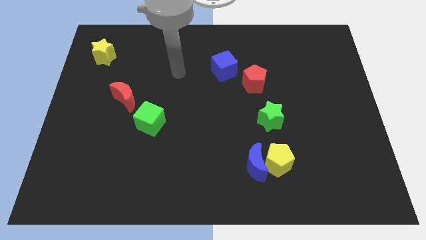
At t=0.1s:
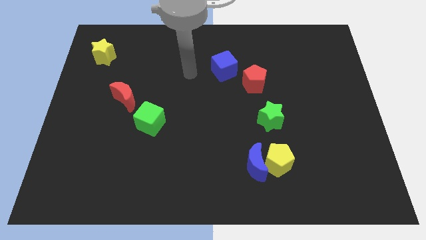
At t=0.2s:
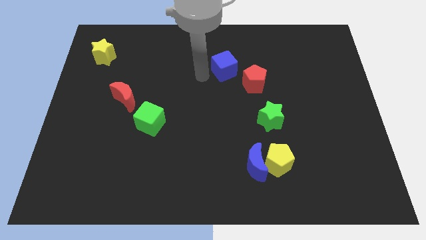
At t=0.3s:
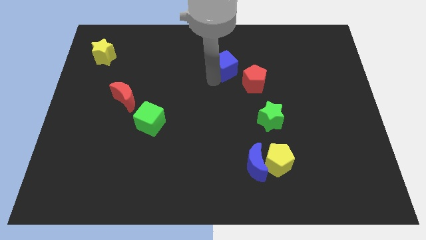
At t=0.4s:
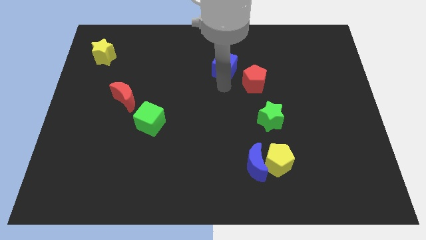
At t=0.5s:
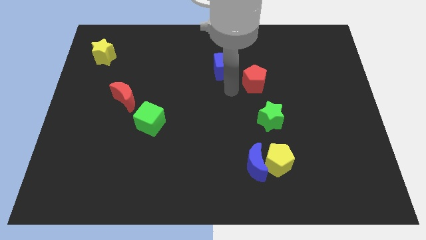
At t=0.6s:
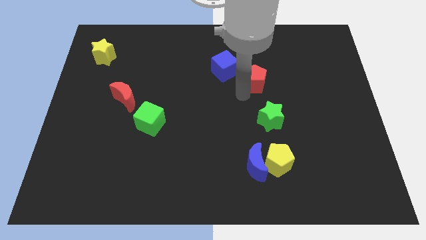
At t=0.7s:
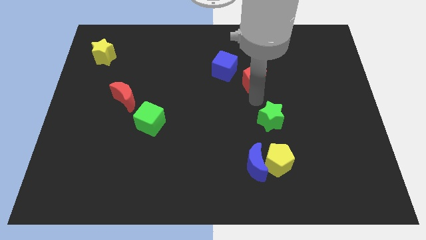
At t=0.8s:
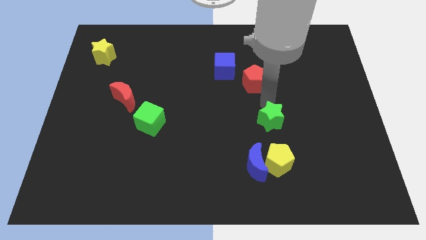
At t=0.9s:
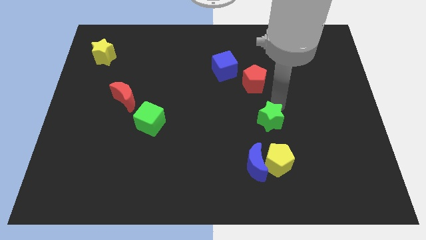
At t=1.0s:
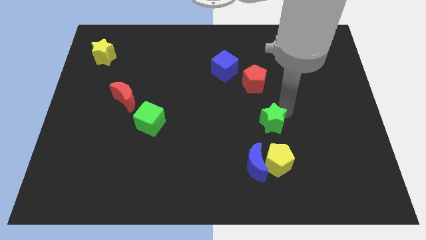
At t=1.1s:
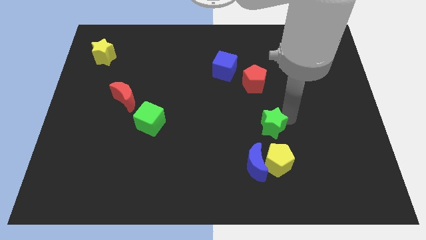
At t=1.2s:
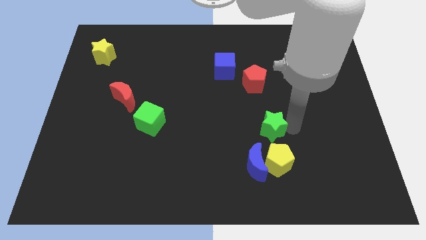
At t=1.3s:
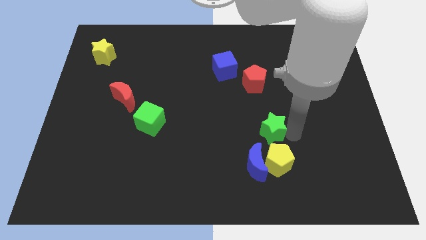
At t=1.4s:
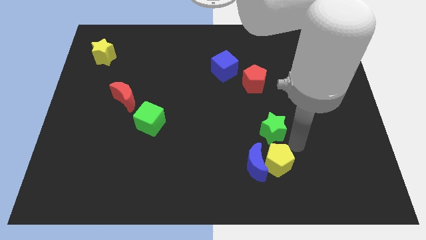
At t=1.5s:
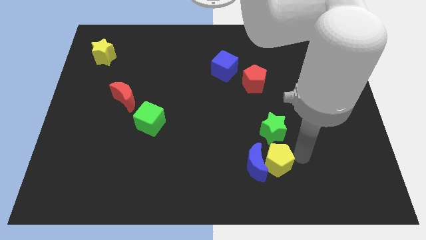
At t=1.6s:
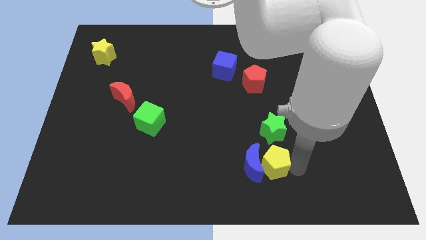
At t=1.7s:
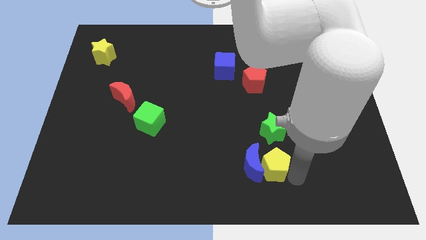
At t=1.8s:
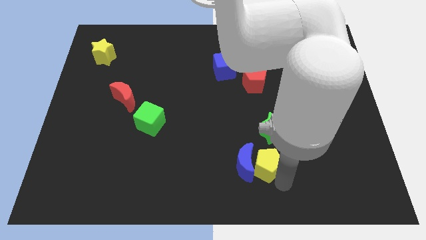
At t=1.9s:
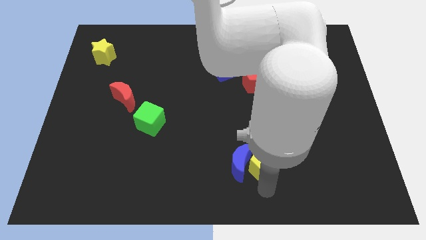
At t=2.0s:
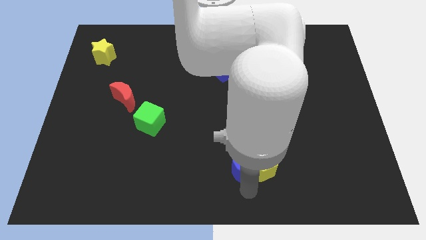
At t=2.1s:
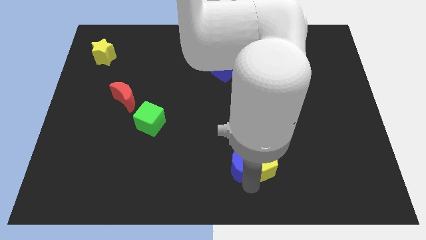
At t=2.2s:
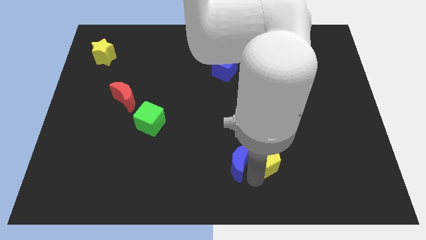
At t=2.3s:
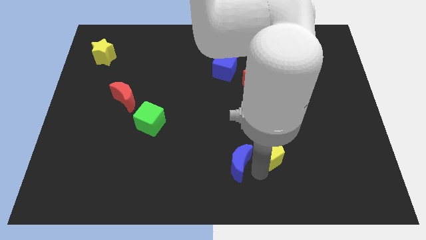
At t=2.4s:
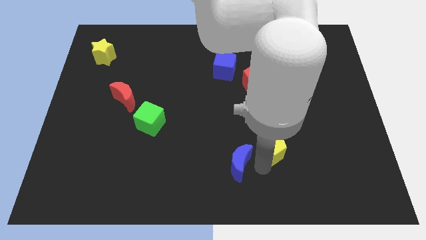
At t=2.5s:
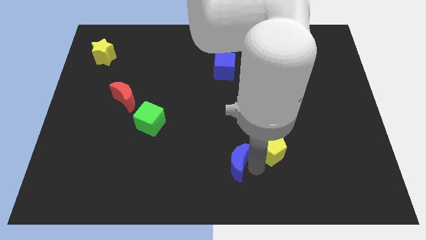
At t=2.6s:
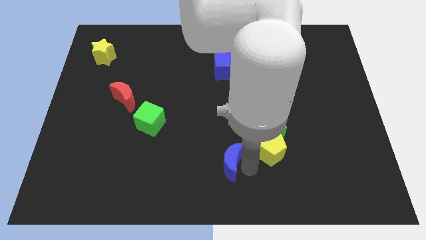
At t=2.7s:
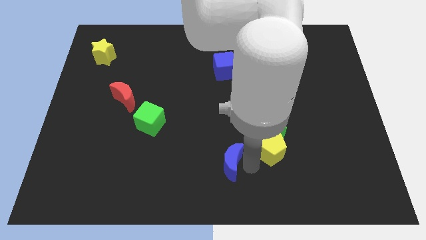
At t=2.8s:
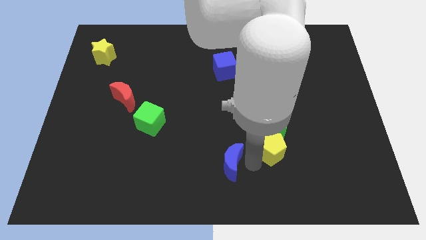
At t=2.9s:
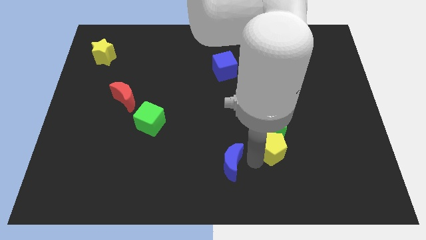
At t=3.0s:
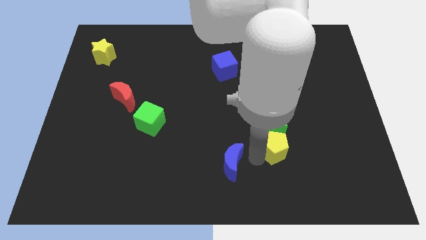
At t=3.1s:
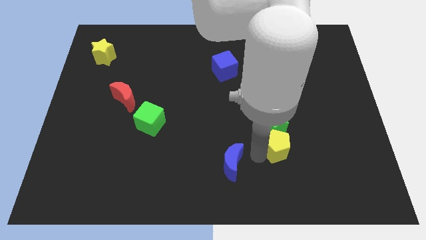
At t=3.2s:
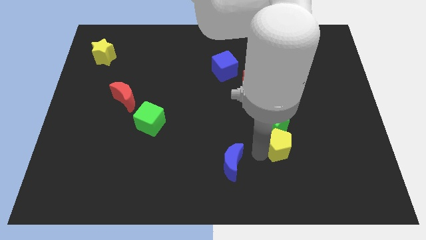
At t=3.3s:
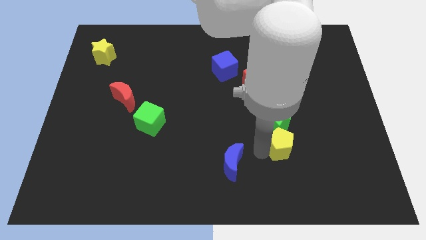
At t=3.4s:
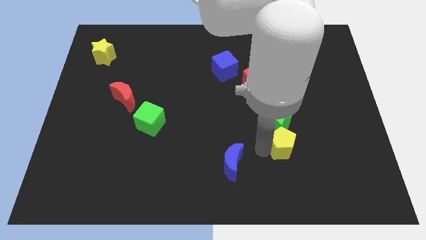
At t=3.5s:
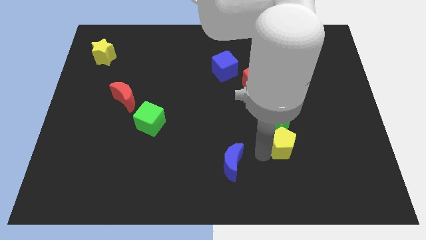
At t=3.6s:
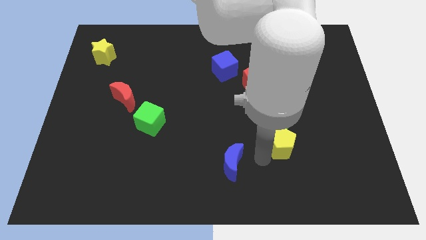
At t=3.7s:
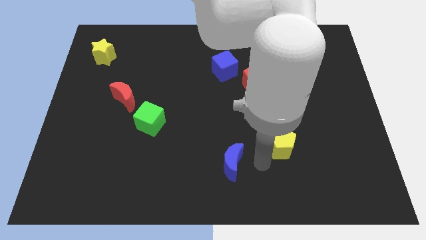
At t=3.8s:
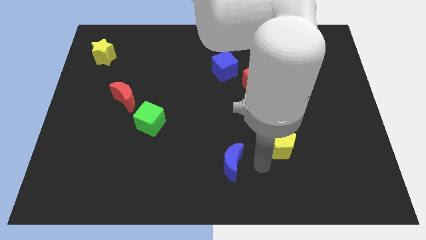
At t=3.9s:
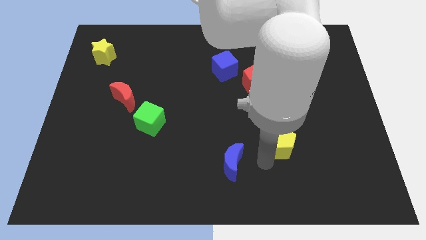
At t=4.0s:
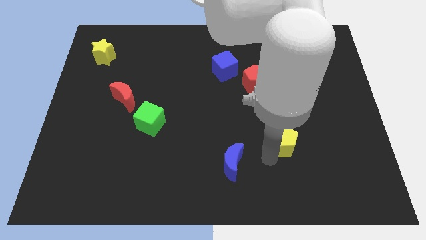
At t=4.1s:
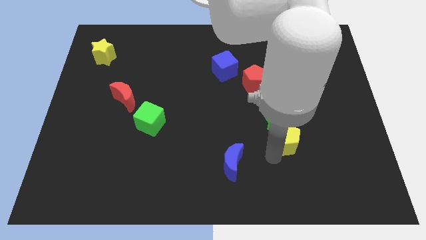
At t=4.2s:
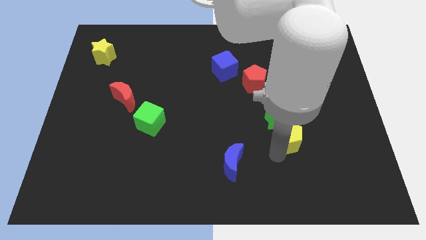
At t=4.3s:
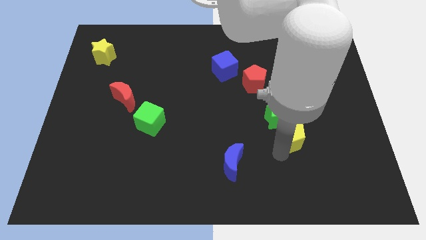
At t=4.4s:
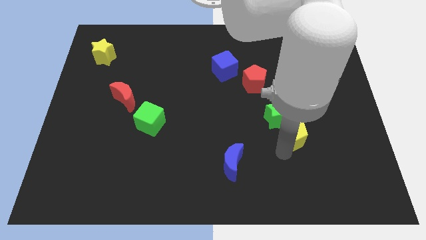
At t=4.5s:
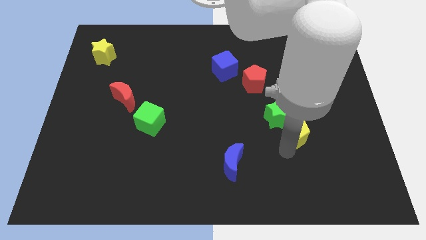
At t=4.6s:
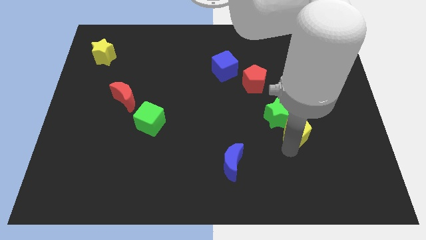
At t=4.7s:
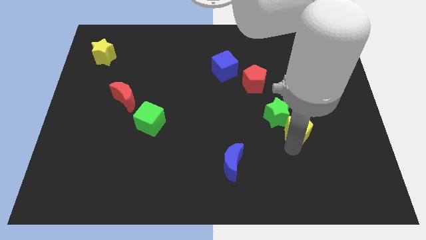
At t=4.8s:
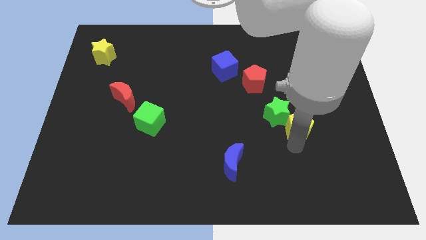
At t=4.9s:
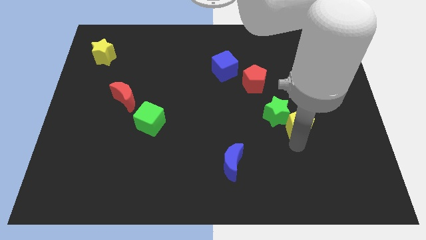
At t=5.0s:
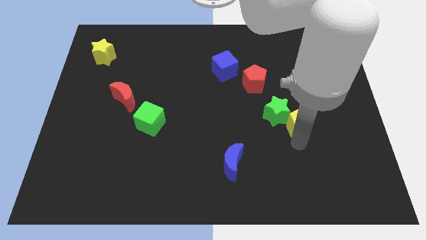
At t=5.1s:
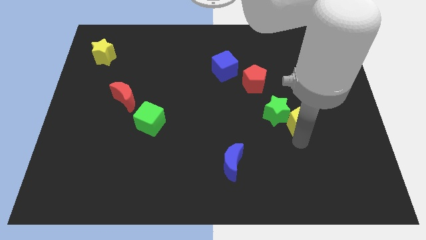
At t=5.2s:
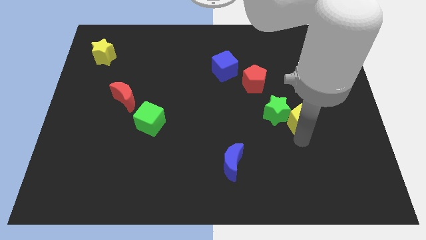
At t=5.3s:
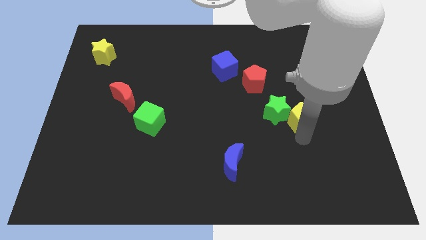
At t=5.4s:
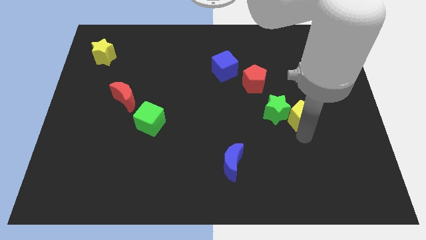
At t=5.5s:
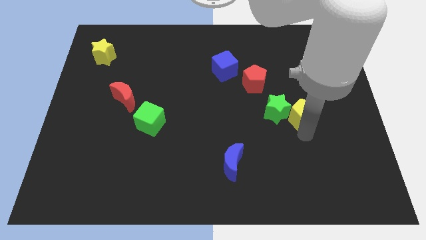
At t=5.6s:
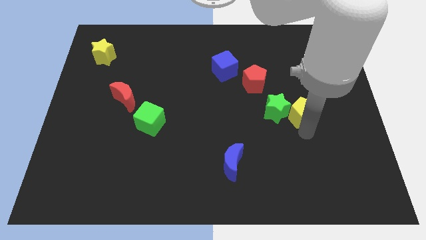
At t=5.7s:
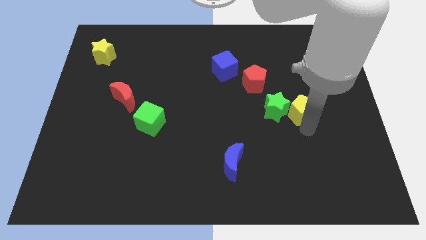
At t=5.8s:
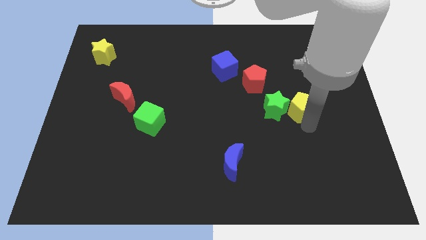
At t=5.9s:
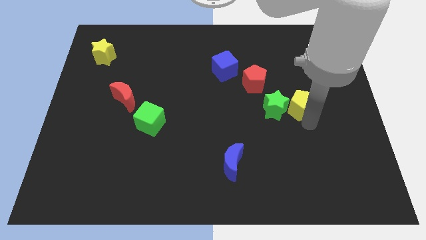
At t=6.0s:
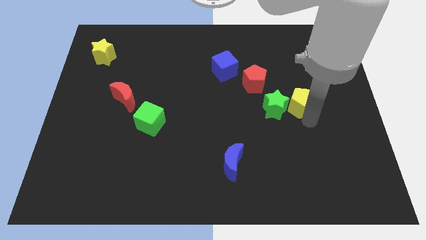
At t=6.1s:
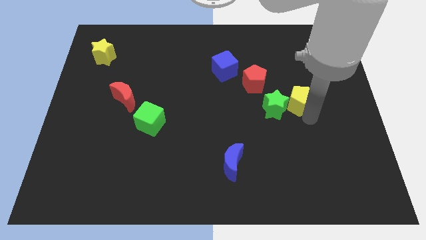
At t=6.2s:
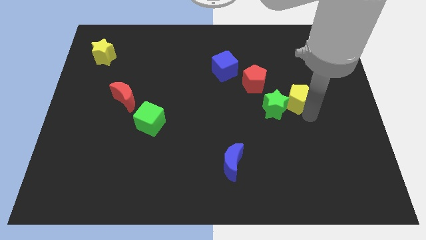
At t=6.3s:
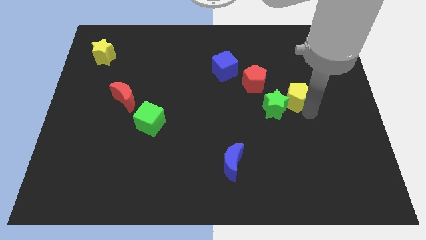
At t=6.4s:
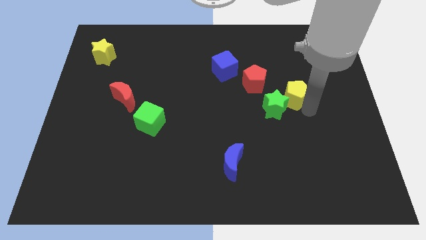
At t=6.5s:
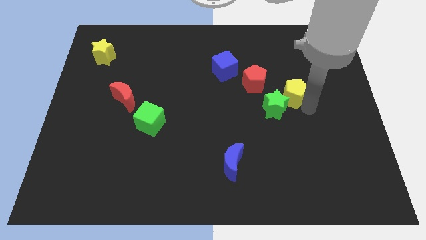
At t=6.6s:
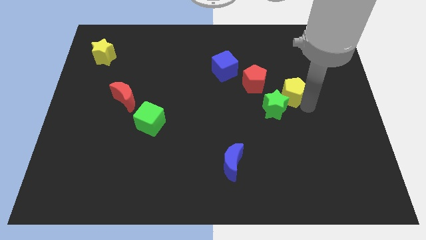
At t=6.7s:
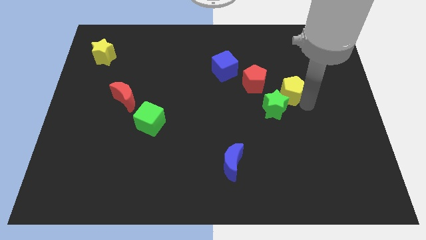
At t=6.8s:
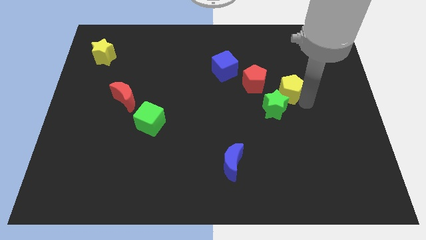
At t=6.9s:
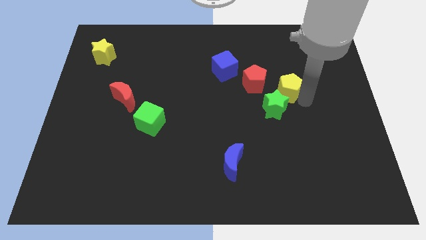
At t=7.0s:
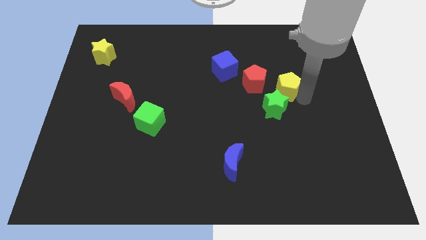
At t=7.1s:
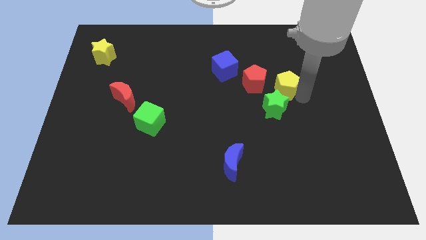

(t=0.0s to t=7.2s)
move the yellow pentagon upwards

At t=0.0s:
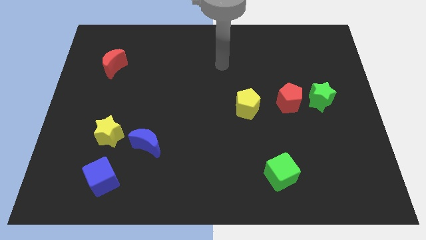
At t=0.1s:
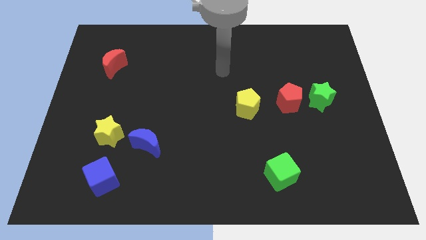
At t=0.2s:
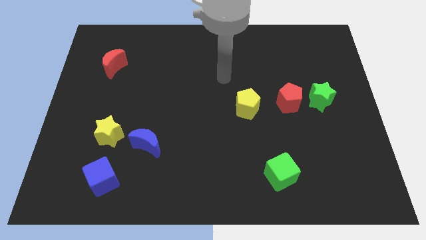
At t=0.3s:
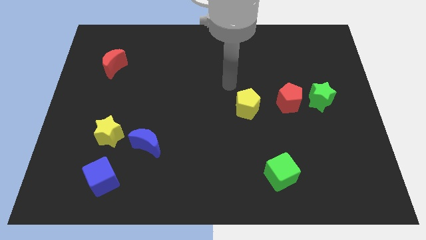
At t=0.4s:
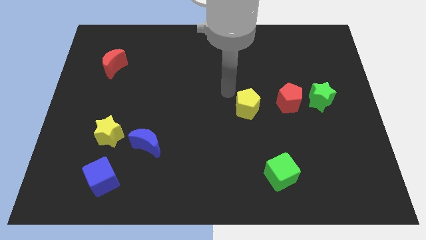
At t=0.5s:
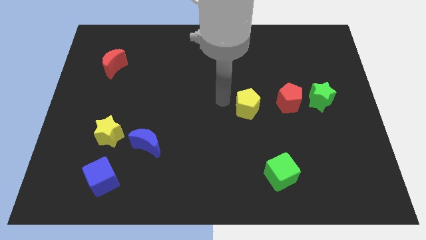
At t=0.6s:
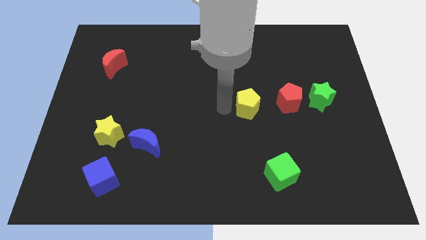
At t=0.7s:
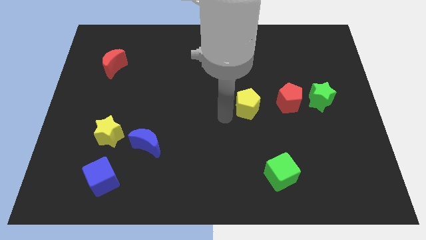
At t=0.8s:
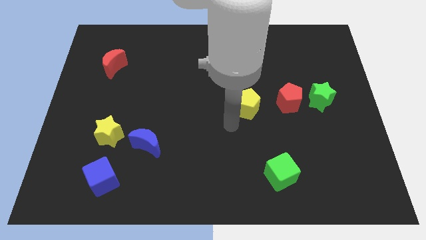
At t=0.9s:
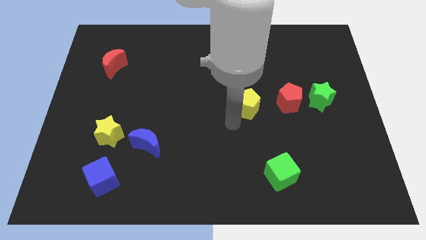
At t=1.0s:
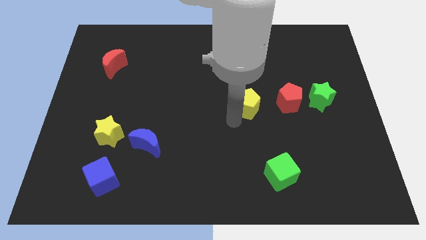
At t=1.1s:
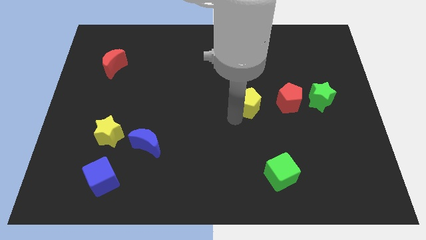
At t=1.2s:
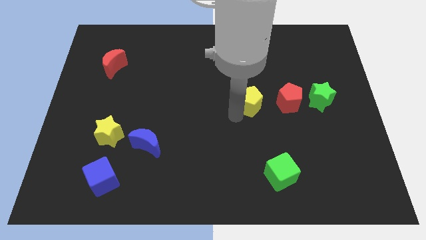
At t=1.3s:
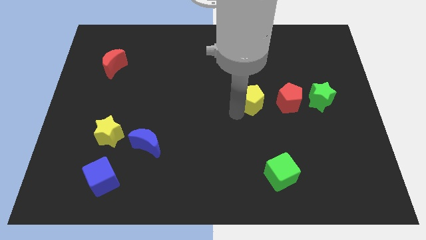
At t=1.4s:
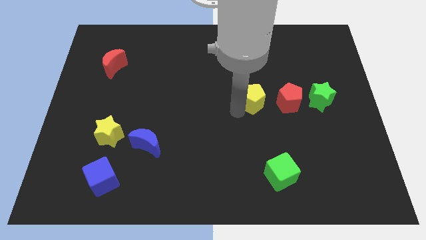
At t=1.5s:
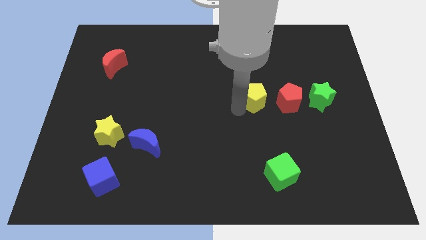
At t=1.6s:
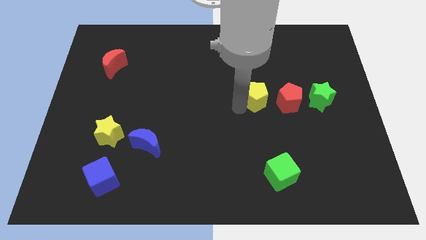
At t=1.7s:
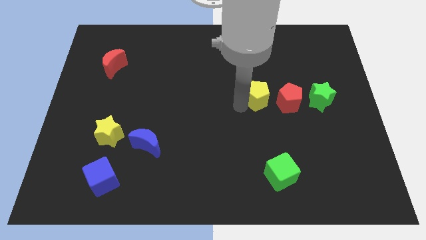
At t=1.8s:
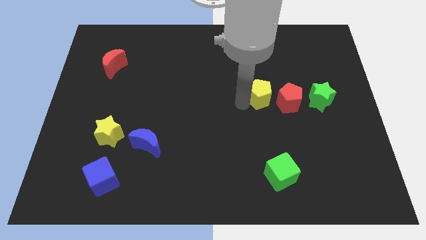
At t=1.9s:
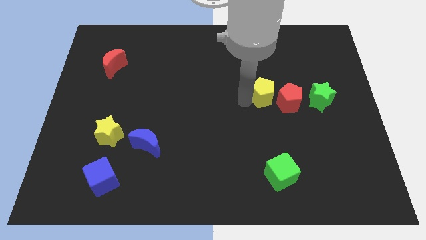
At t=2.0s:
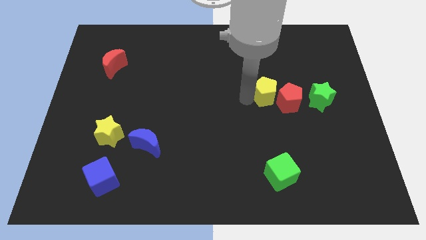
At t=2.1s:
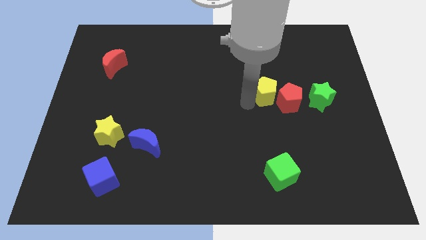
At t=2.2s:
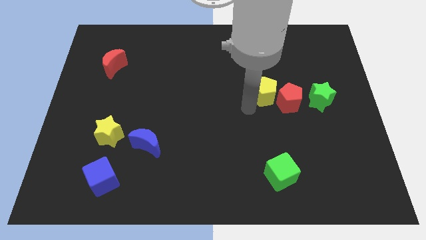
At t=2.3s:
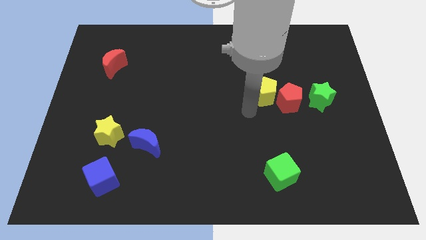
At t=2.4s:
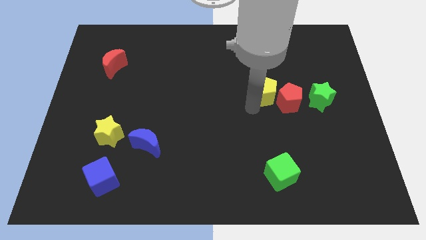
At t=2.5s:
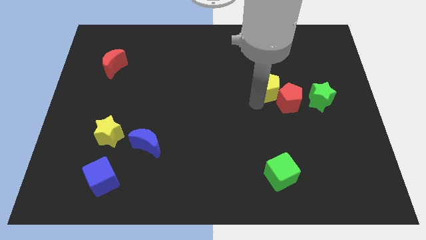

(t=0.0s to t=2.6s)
move the yellow pentagon somewhat upwards and to the right diagonally
